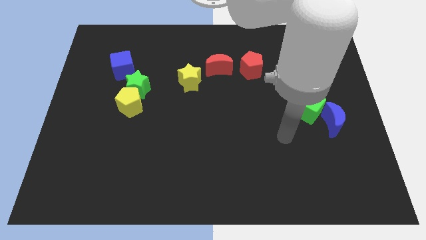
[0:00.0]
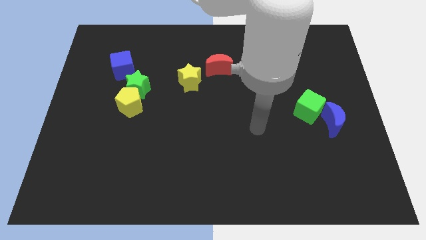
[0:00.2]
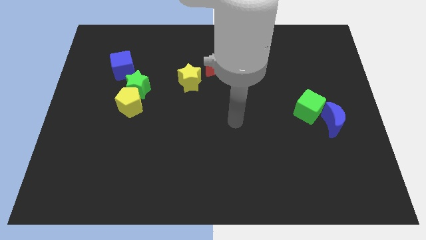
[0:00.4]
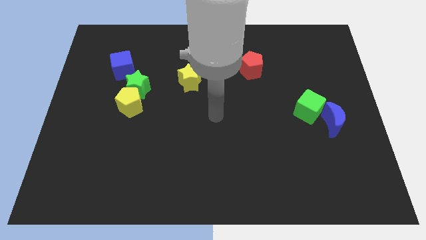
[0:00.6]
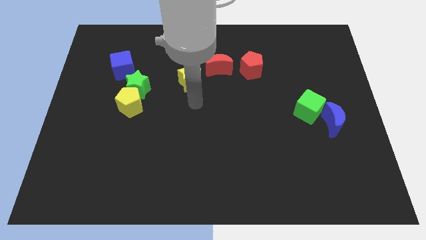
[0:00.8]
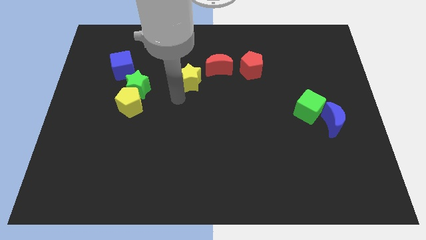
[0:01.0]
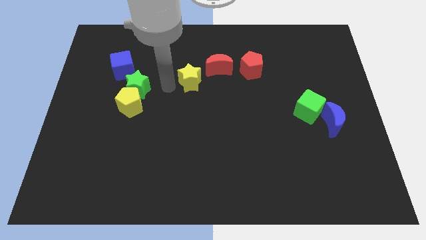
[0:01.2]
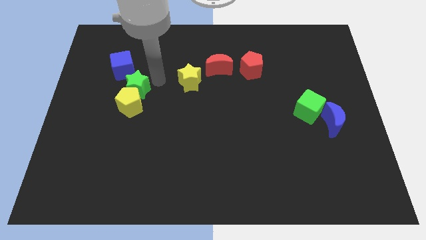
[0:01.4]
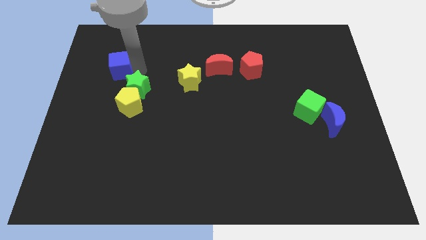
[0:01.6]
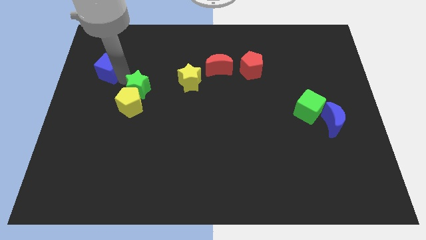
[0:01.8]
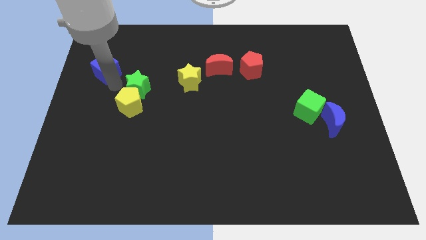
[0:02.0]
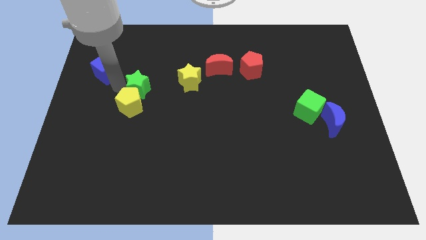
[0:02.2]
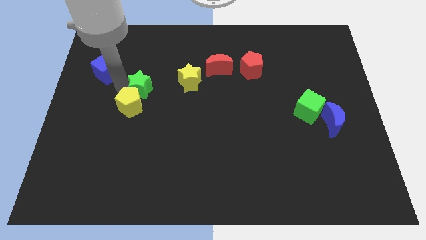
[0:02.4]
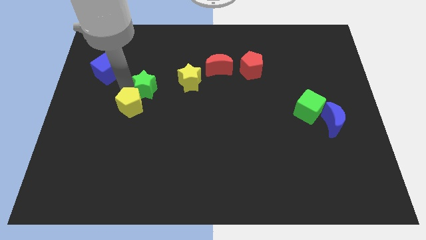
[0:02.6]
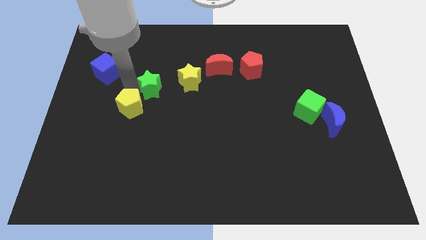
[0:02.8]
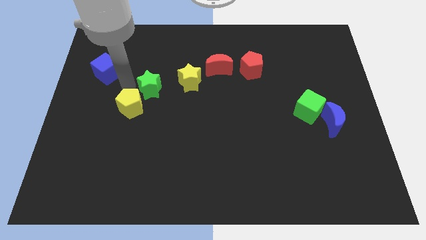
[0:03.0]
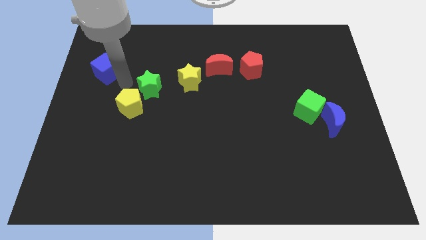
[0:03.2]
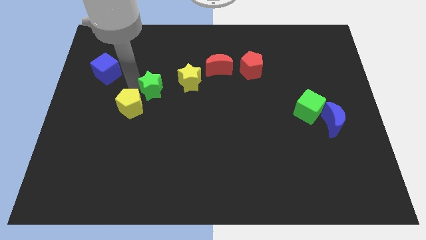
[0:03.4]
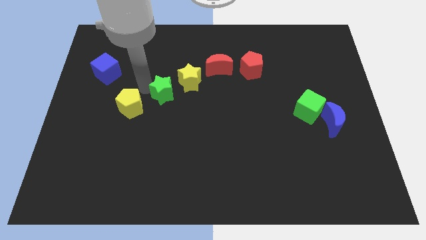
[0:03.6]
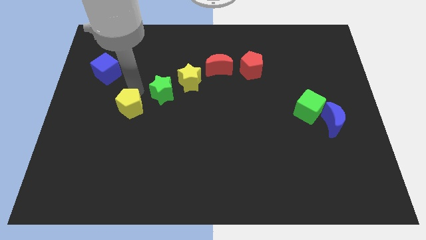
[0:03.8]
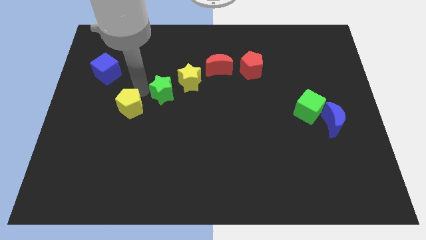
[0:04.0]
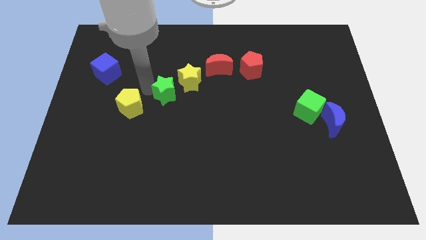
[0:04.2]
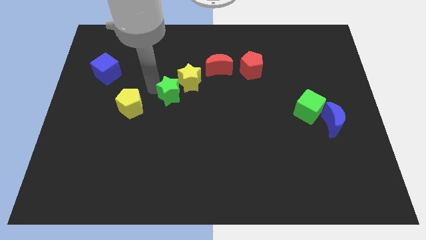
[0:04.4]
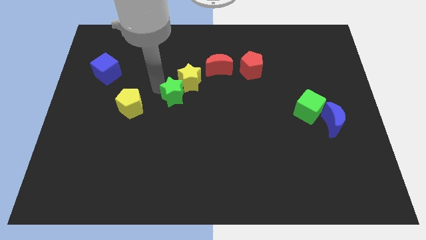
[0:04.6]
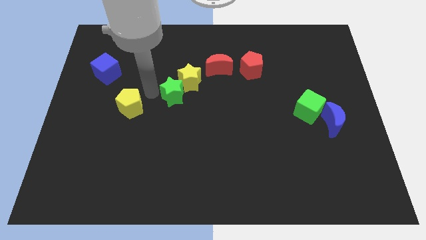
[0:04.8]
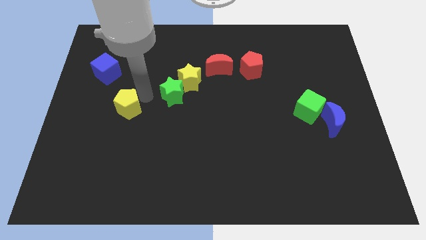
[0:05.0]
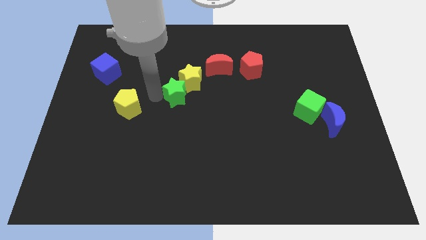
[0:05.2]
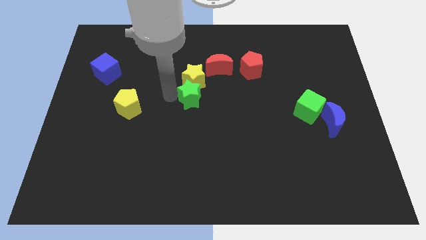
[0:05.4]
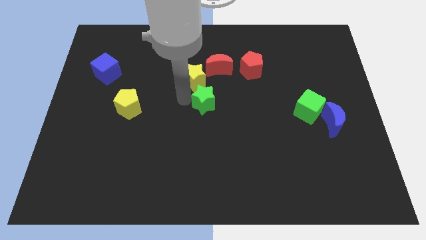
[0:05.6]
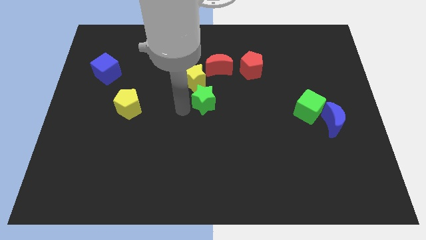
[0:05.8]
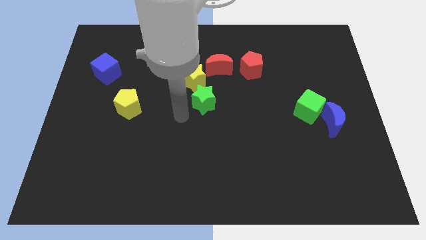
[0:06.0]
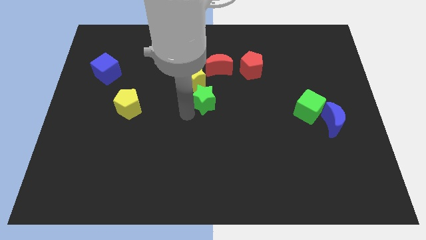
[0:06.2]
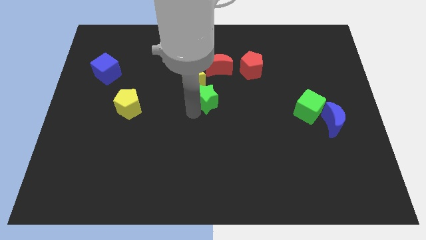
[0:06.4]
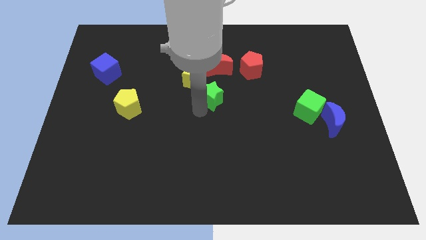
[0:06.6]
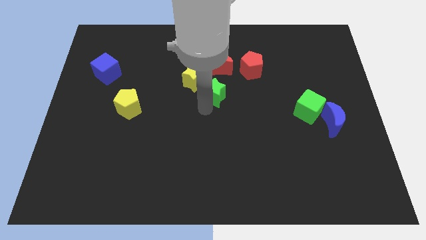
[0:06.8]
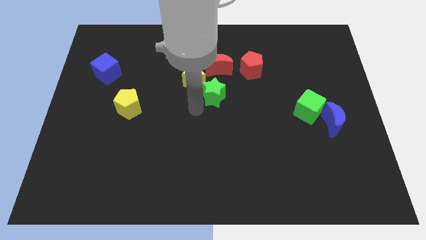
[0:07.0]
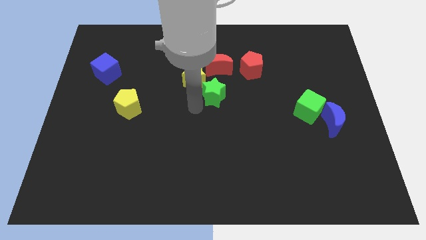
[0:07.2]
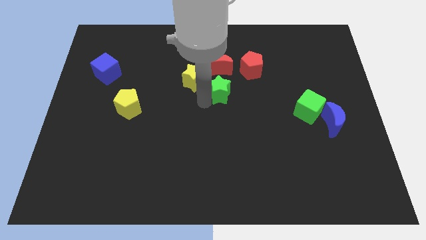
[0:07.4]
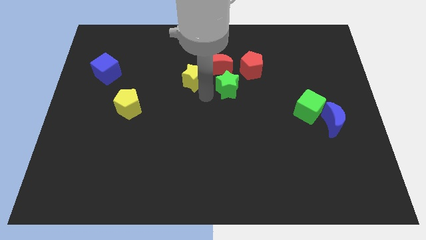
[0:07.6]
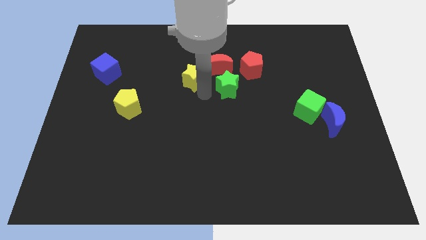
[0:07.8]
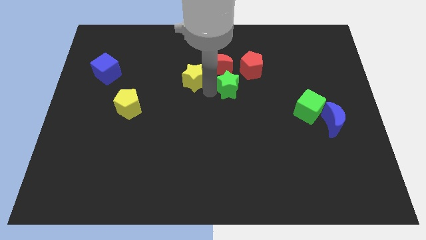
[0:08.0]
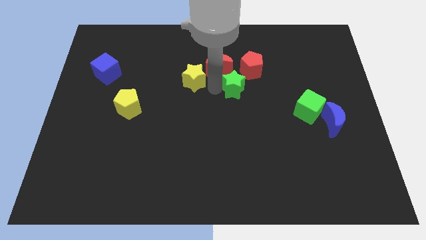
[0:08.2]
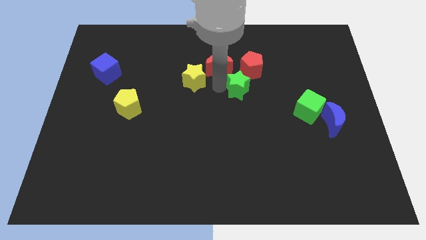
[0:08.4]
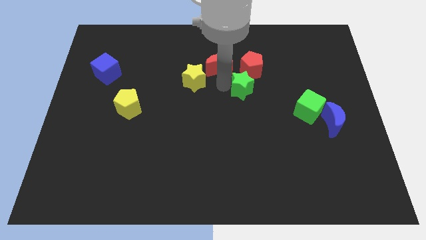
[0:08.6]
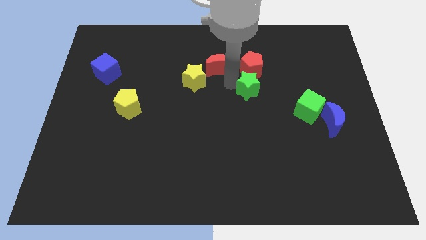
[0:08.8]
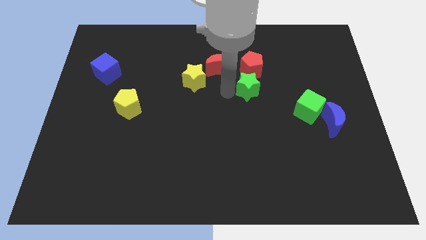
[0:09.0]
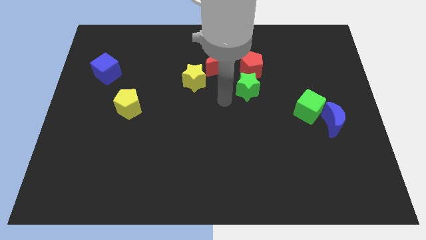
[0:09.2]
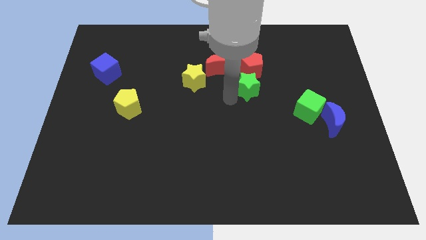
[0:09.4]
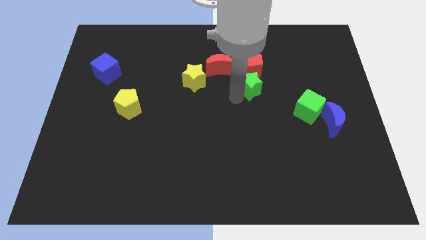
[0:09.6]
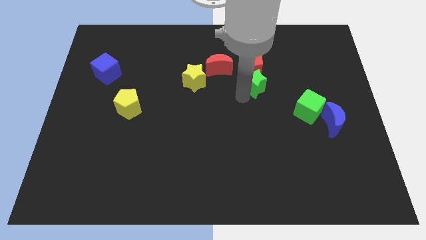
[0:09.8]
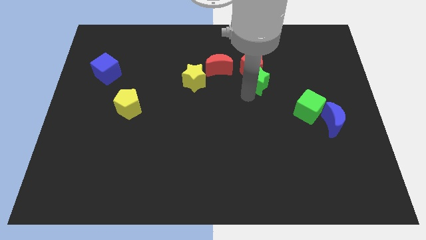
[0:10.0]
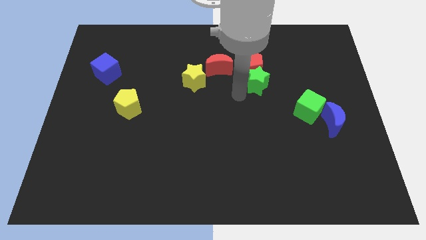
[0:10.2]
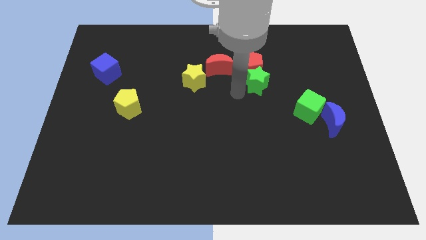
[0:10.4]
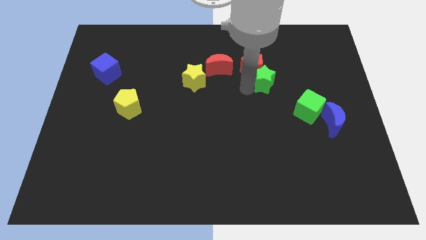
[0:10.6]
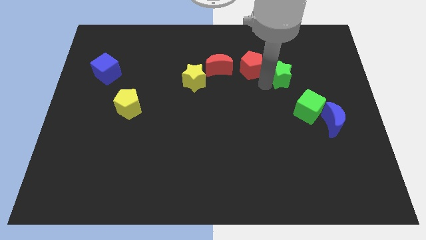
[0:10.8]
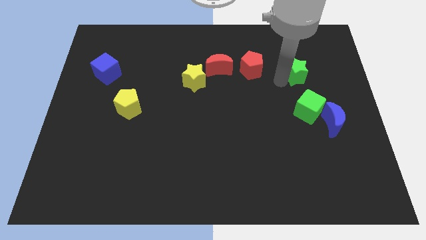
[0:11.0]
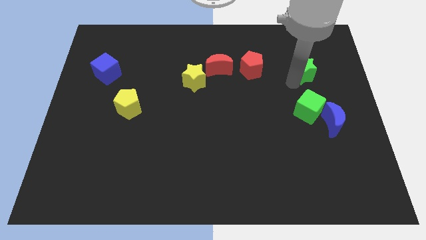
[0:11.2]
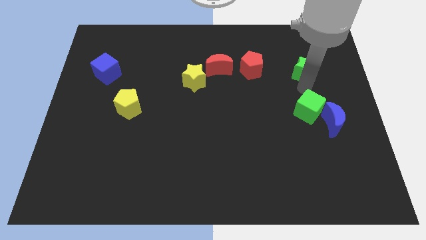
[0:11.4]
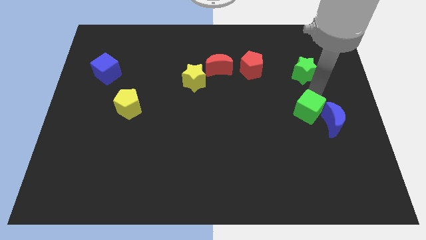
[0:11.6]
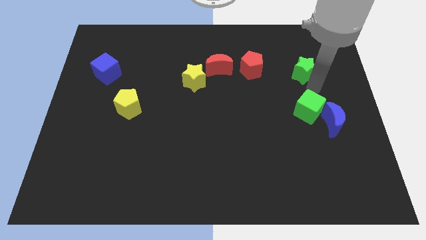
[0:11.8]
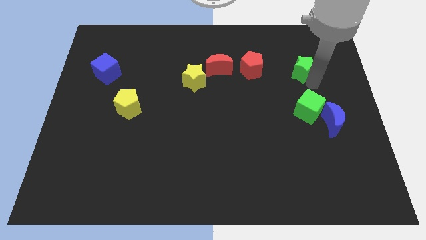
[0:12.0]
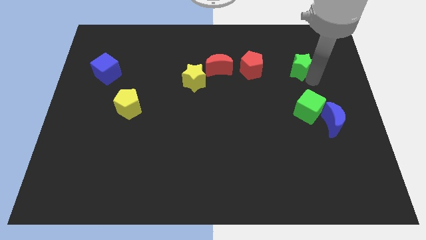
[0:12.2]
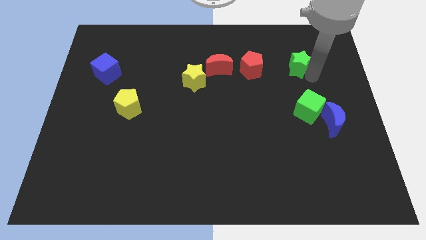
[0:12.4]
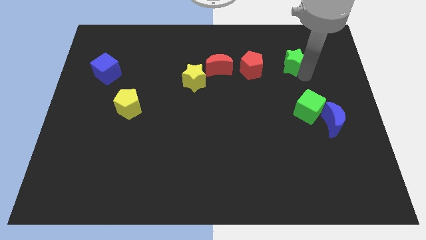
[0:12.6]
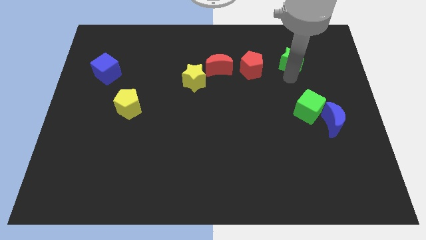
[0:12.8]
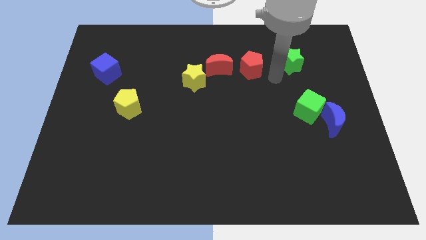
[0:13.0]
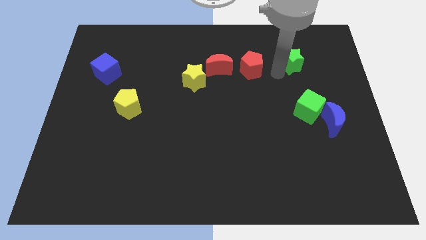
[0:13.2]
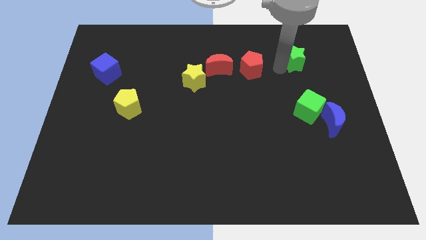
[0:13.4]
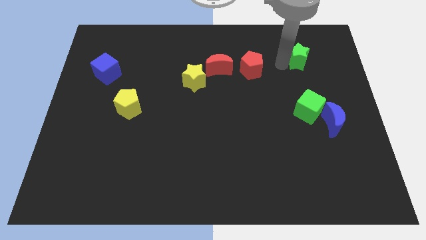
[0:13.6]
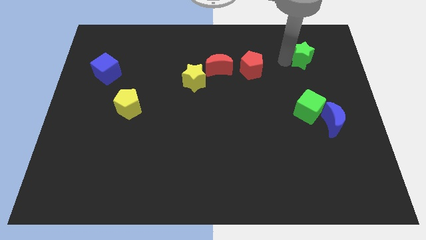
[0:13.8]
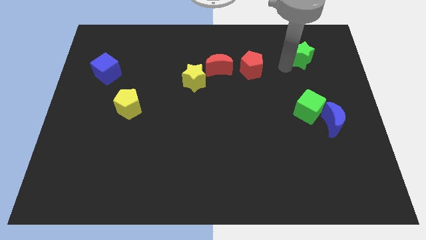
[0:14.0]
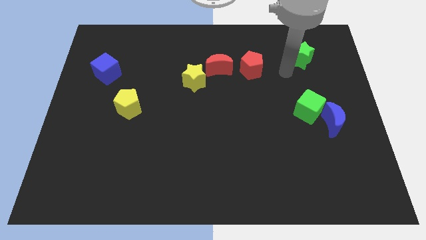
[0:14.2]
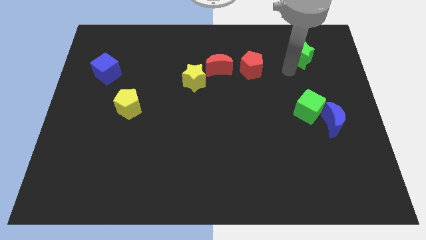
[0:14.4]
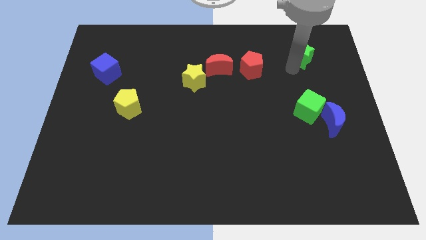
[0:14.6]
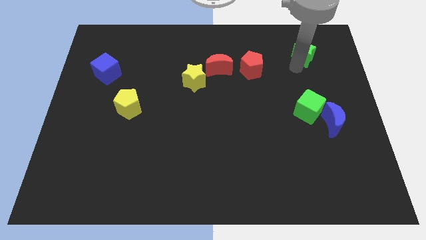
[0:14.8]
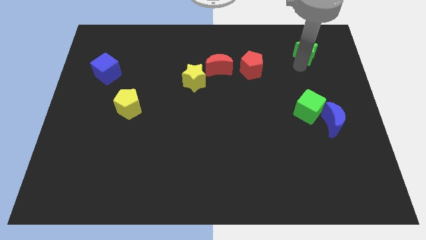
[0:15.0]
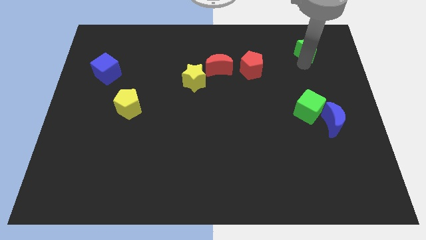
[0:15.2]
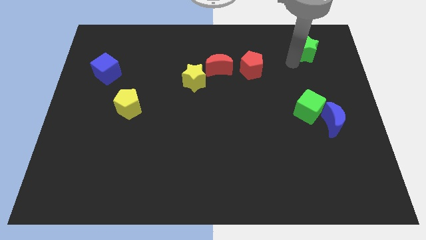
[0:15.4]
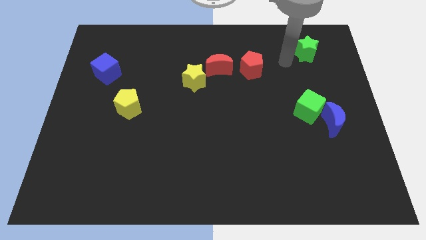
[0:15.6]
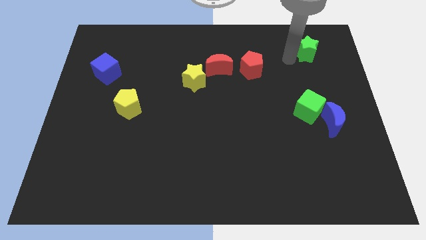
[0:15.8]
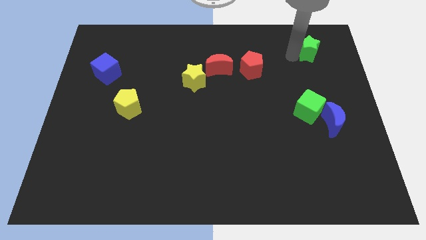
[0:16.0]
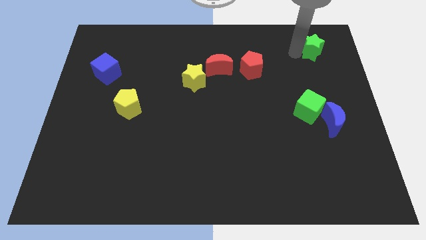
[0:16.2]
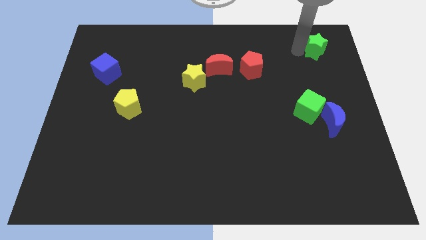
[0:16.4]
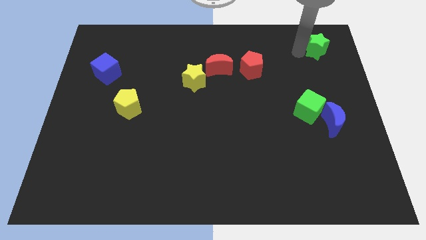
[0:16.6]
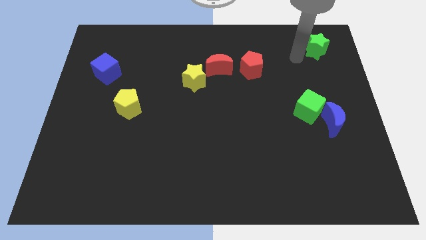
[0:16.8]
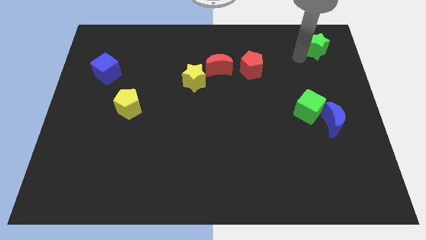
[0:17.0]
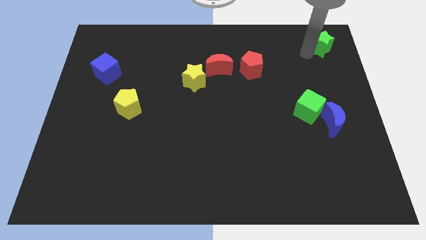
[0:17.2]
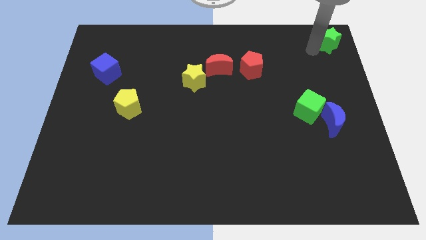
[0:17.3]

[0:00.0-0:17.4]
move the green star to the top right corner
